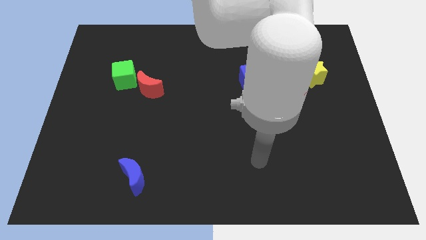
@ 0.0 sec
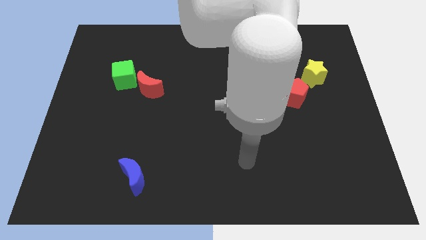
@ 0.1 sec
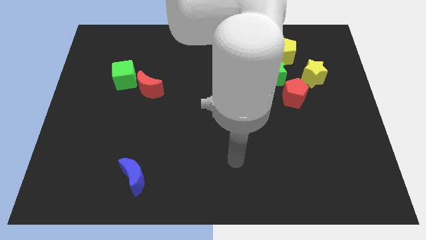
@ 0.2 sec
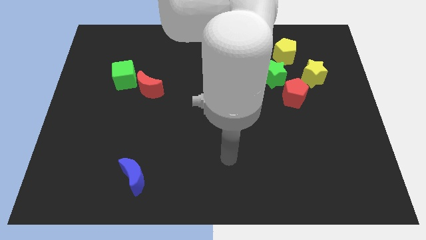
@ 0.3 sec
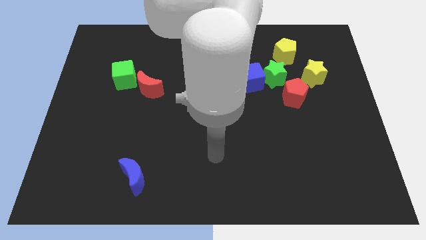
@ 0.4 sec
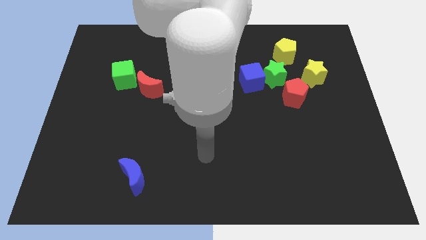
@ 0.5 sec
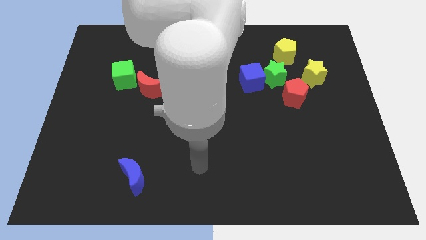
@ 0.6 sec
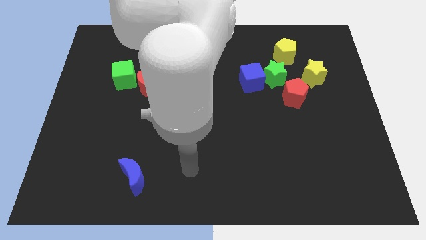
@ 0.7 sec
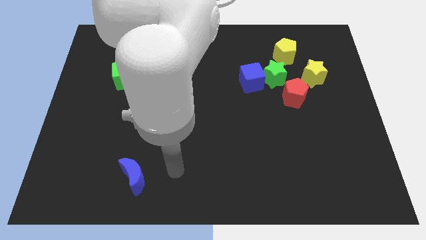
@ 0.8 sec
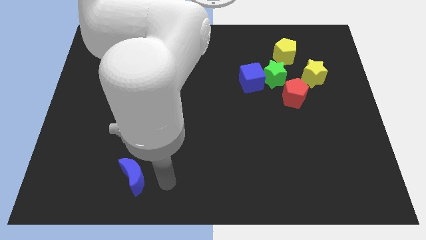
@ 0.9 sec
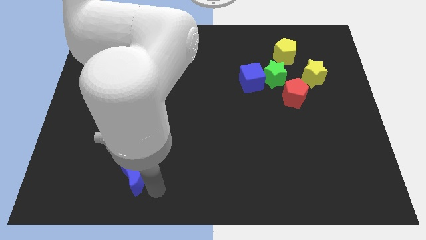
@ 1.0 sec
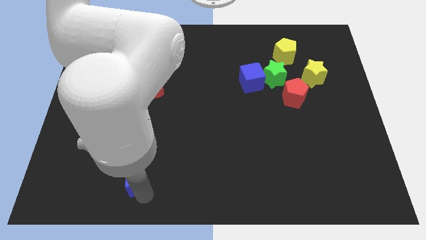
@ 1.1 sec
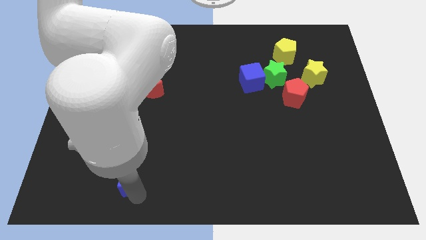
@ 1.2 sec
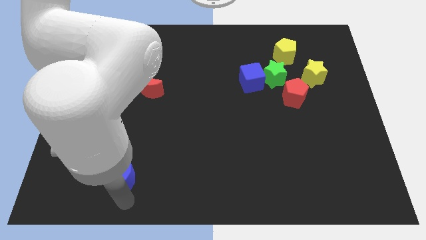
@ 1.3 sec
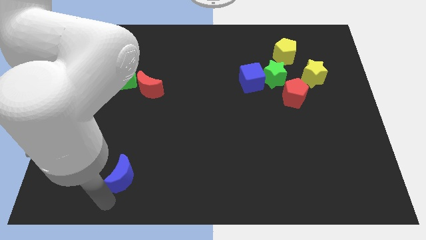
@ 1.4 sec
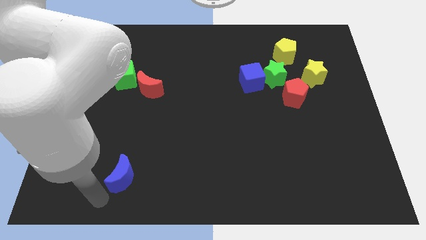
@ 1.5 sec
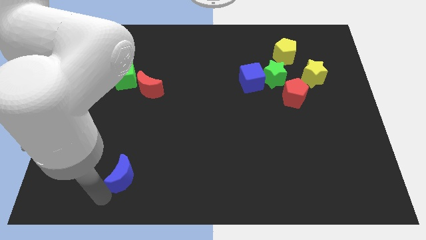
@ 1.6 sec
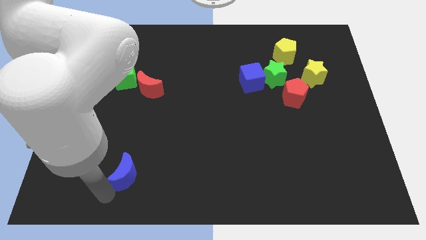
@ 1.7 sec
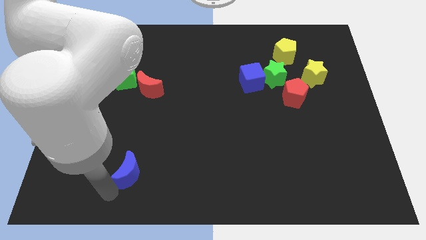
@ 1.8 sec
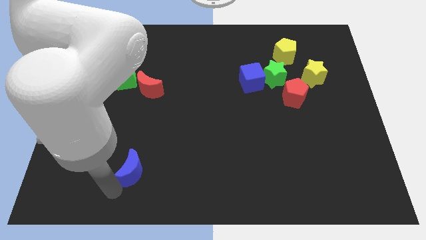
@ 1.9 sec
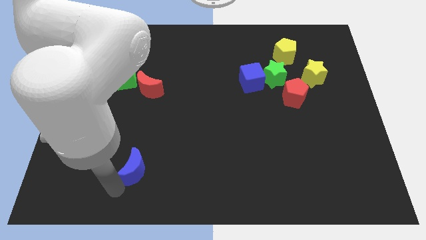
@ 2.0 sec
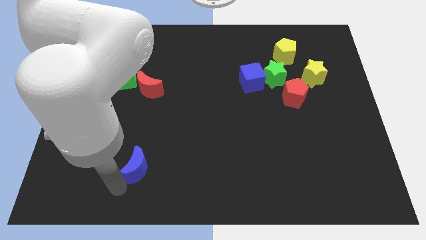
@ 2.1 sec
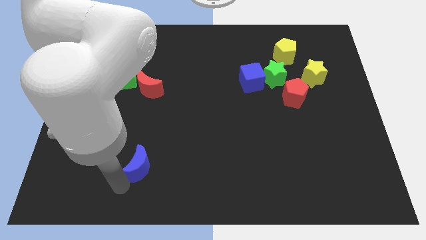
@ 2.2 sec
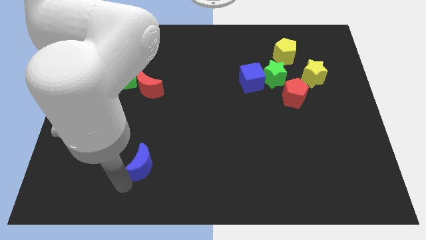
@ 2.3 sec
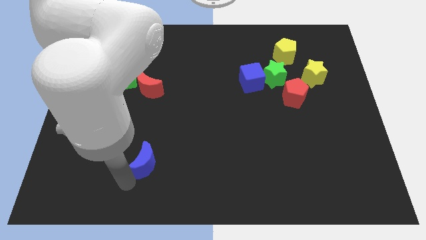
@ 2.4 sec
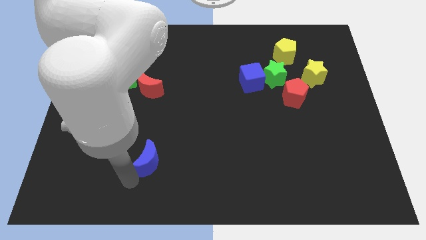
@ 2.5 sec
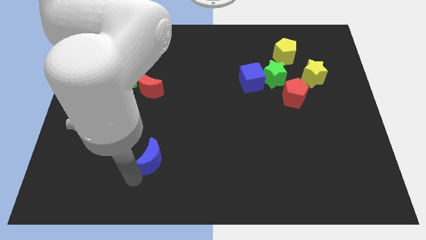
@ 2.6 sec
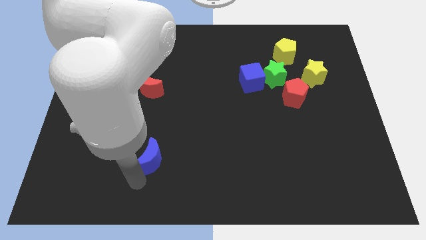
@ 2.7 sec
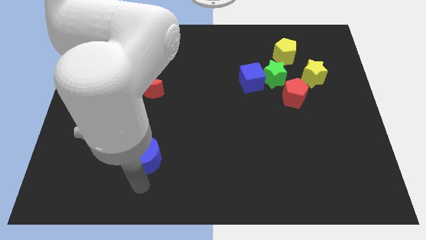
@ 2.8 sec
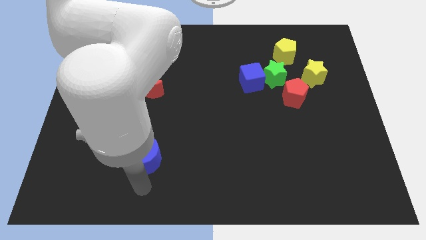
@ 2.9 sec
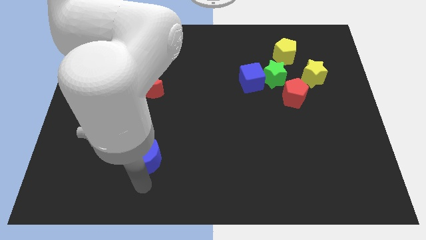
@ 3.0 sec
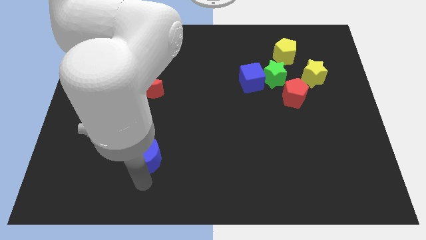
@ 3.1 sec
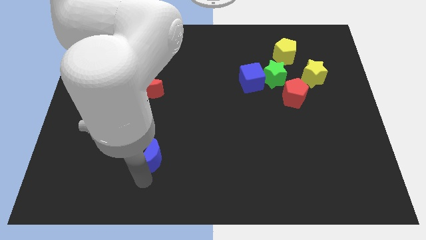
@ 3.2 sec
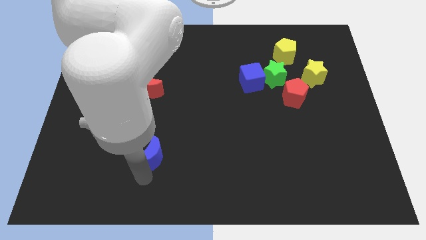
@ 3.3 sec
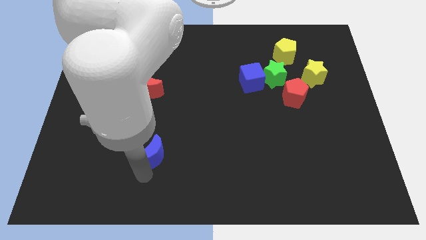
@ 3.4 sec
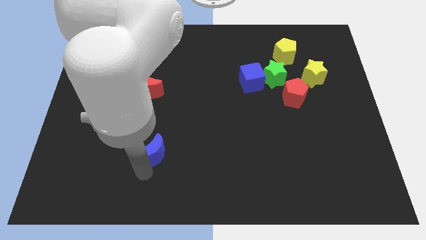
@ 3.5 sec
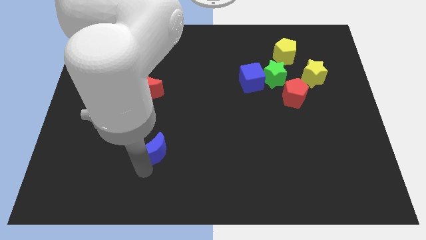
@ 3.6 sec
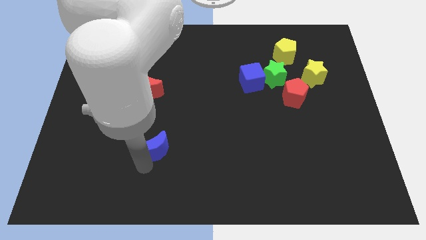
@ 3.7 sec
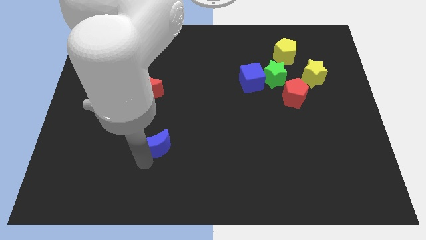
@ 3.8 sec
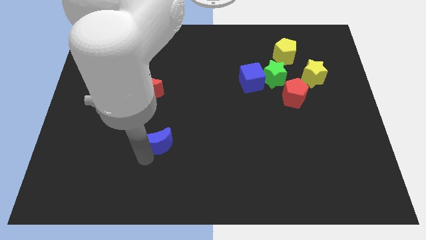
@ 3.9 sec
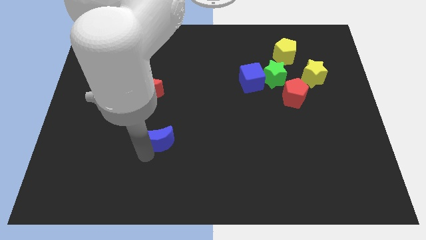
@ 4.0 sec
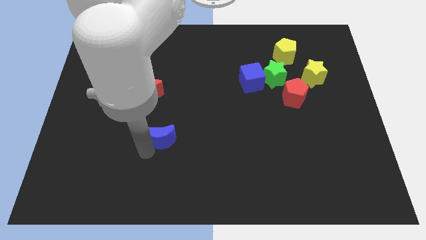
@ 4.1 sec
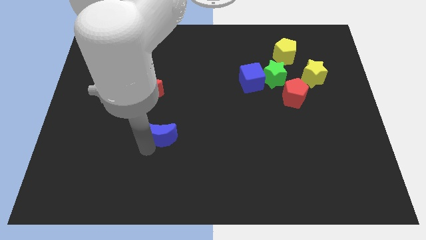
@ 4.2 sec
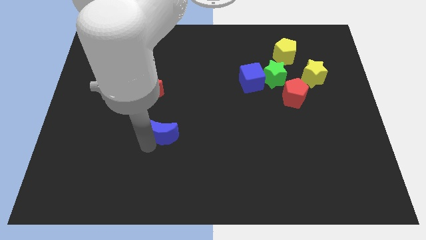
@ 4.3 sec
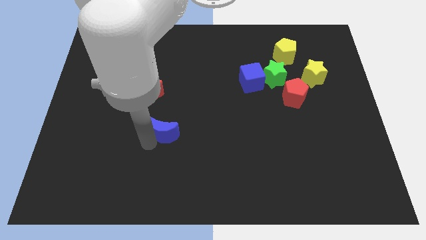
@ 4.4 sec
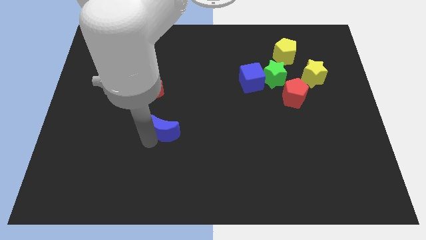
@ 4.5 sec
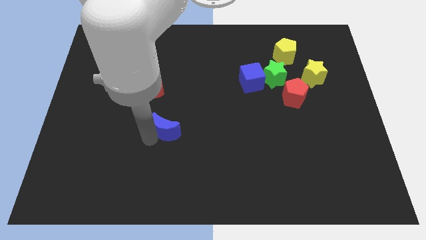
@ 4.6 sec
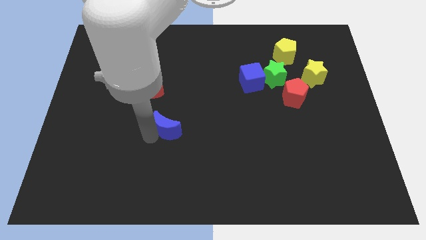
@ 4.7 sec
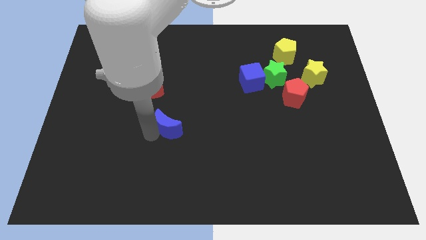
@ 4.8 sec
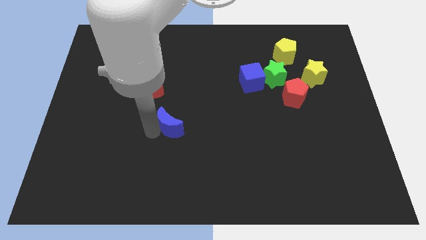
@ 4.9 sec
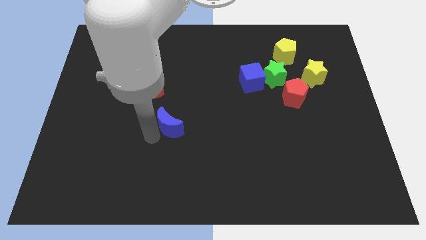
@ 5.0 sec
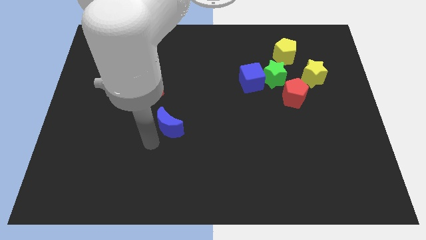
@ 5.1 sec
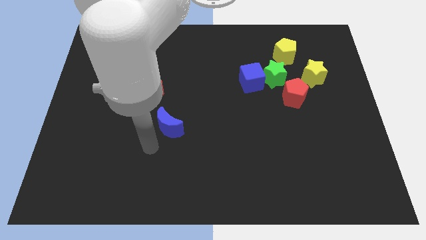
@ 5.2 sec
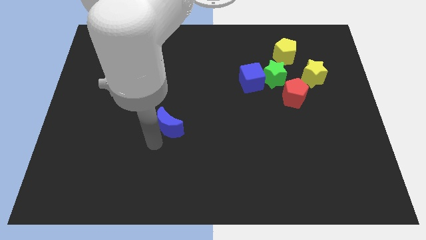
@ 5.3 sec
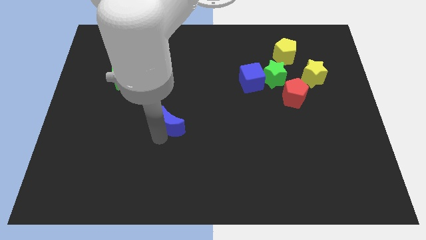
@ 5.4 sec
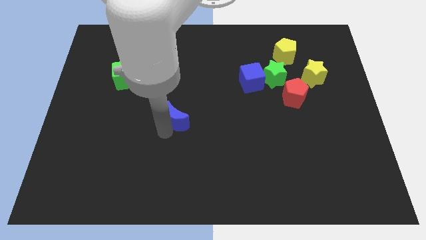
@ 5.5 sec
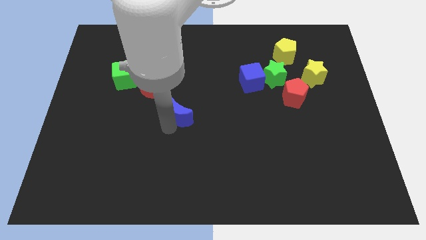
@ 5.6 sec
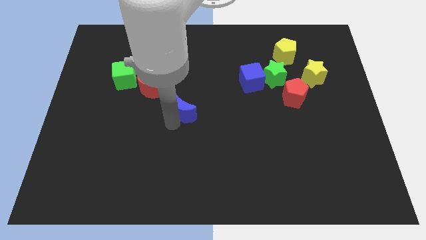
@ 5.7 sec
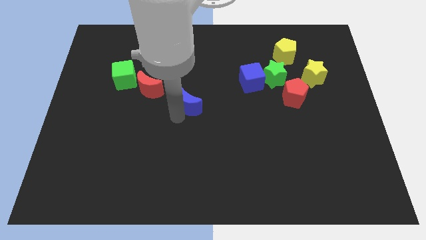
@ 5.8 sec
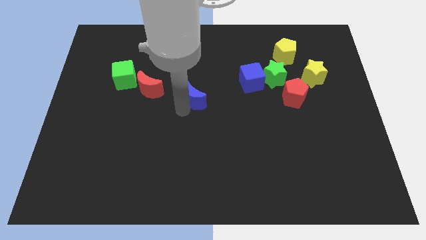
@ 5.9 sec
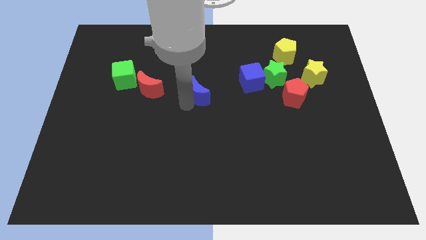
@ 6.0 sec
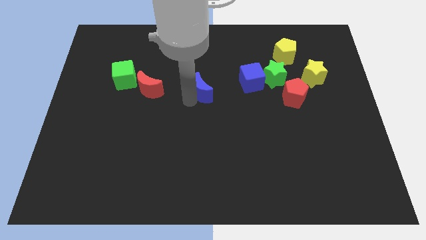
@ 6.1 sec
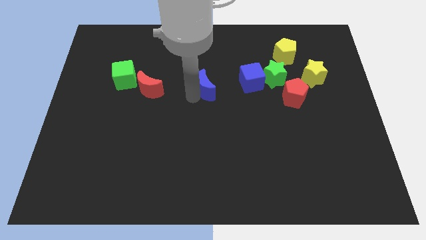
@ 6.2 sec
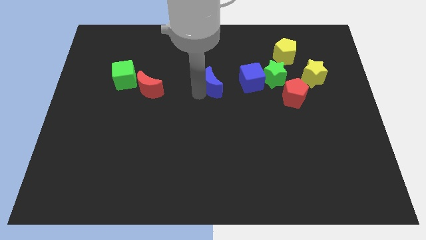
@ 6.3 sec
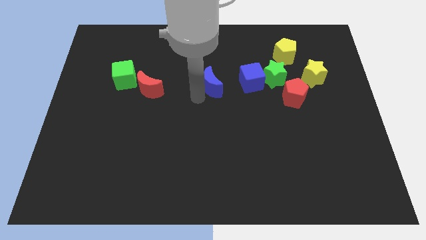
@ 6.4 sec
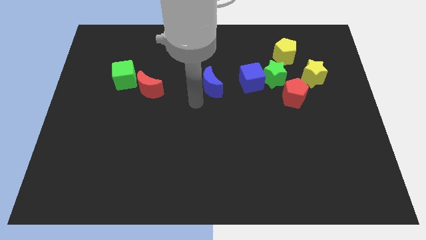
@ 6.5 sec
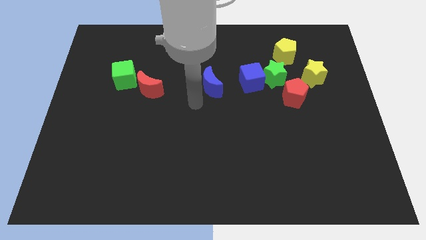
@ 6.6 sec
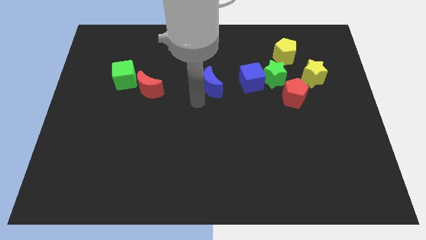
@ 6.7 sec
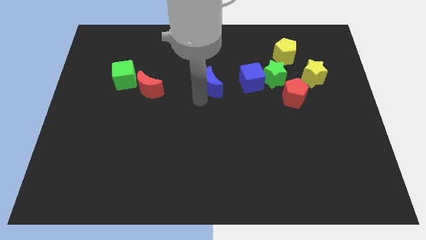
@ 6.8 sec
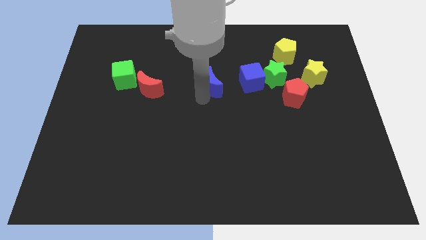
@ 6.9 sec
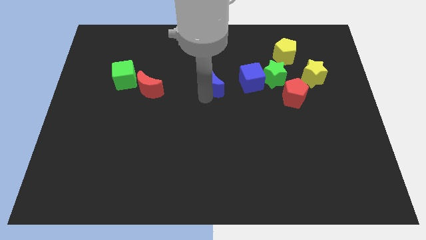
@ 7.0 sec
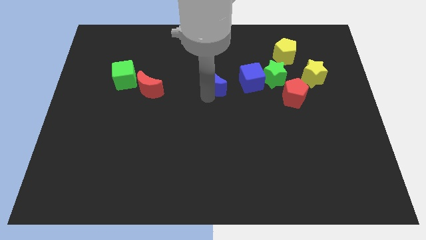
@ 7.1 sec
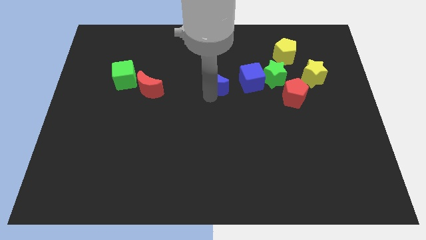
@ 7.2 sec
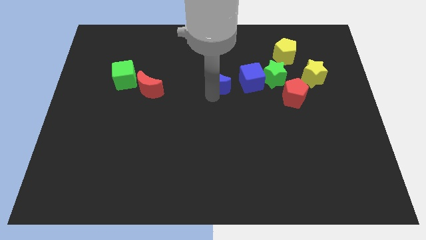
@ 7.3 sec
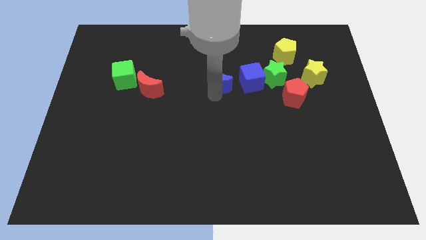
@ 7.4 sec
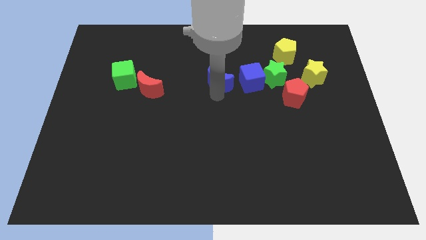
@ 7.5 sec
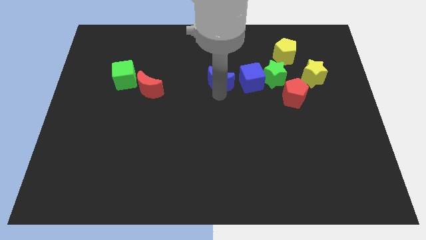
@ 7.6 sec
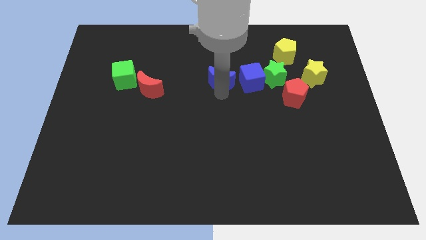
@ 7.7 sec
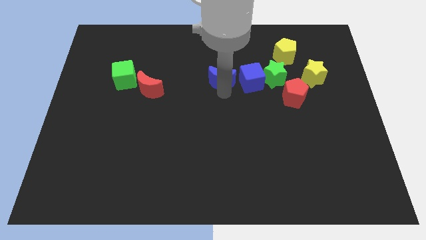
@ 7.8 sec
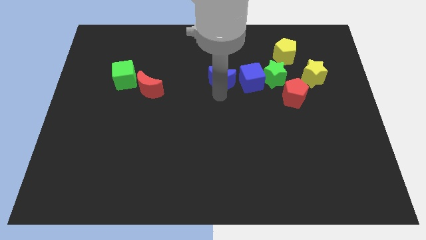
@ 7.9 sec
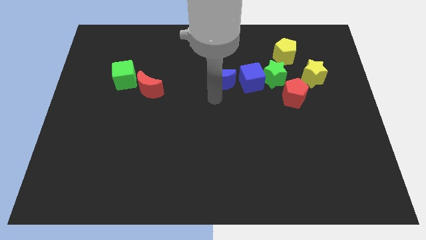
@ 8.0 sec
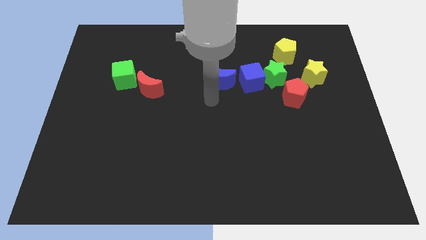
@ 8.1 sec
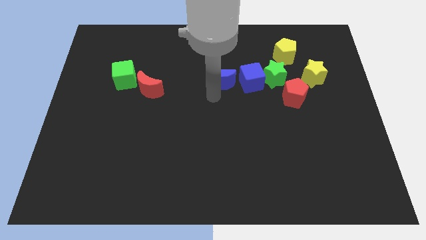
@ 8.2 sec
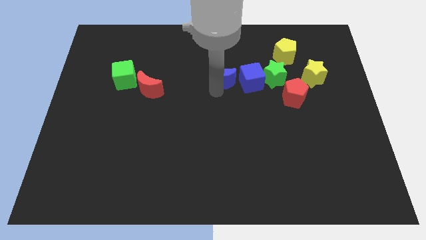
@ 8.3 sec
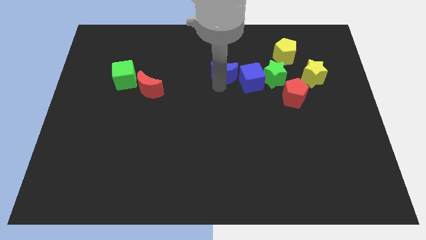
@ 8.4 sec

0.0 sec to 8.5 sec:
push the blue moon diagonally up and to the left of the blue cube
